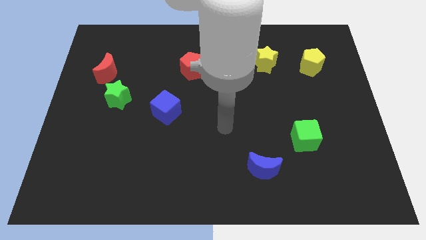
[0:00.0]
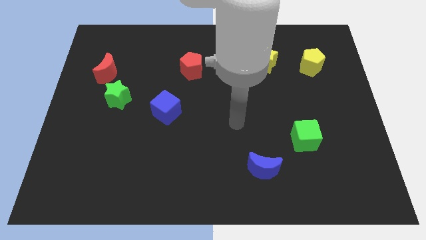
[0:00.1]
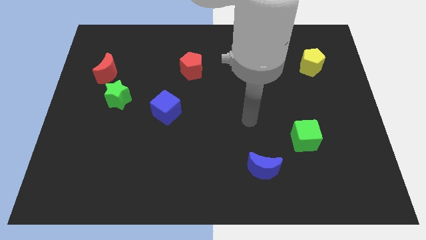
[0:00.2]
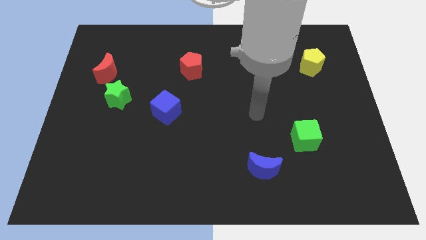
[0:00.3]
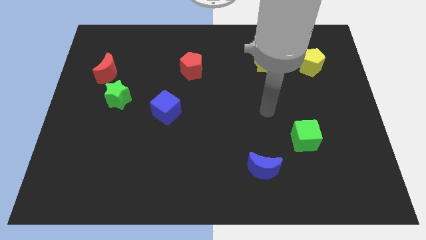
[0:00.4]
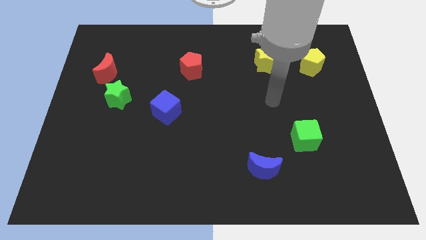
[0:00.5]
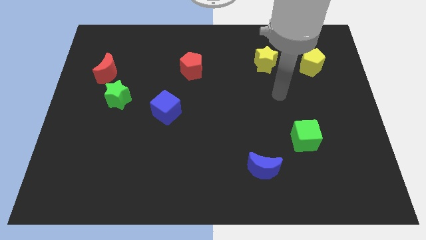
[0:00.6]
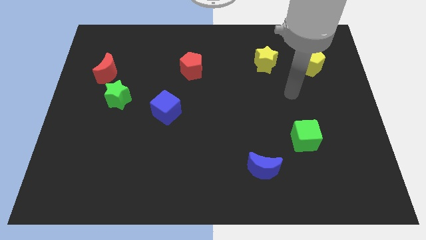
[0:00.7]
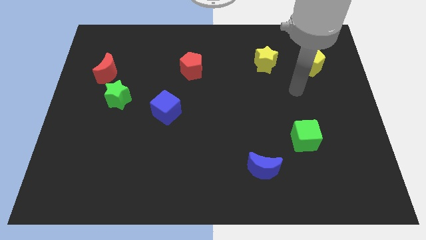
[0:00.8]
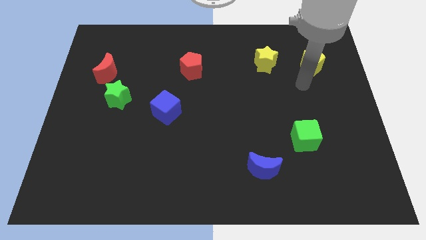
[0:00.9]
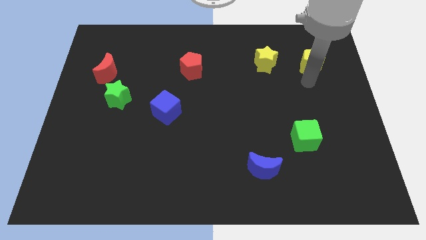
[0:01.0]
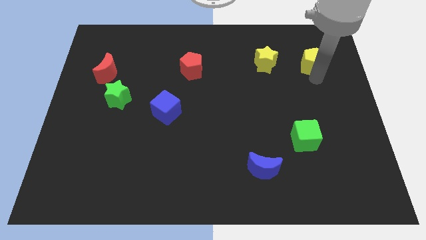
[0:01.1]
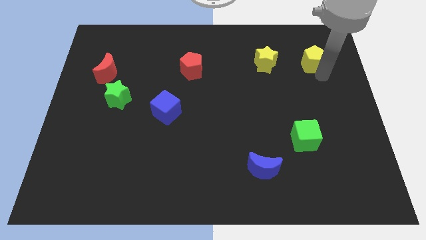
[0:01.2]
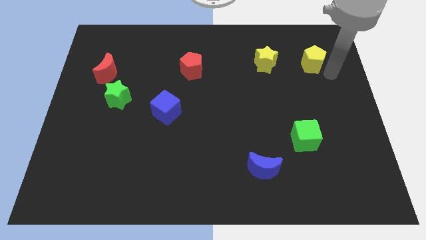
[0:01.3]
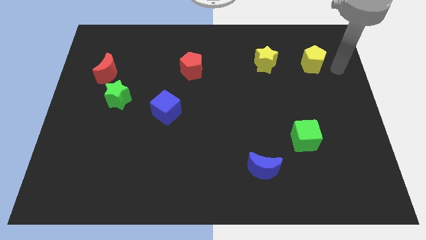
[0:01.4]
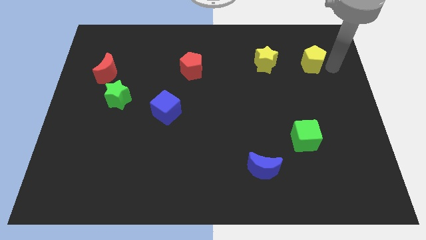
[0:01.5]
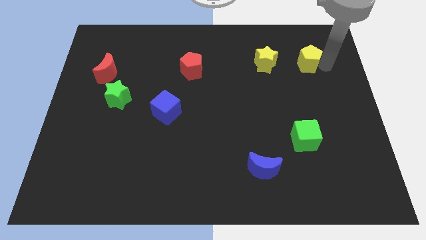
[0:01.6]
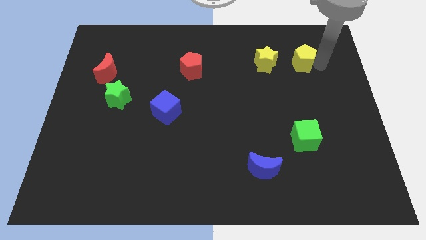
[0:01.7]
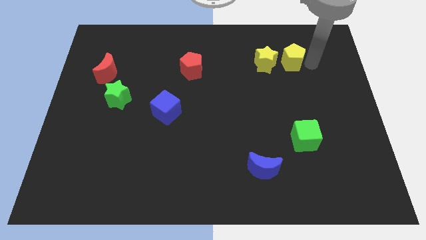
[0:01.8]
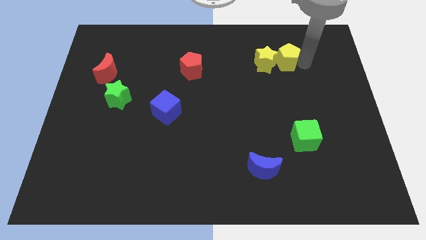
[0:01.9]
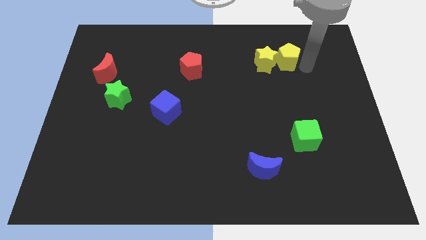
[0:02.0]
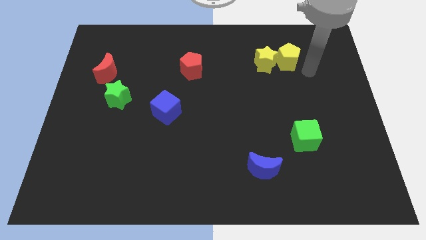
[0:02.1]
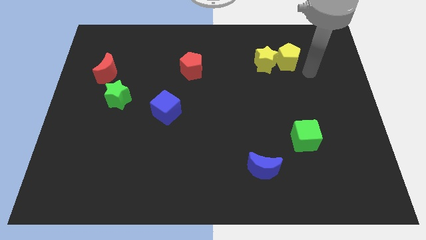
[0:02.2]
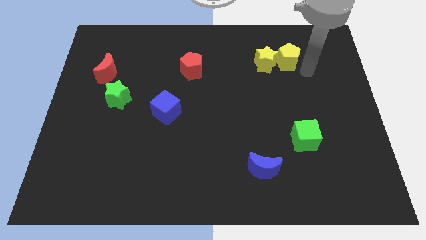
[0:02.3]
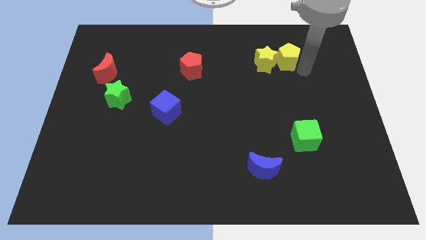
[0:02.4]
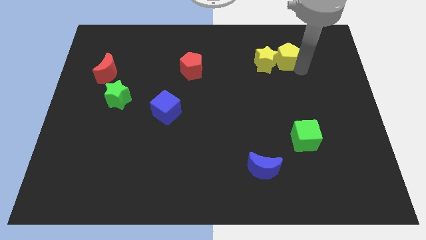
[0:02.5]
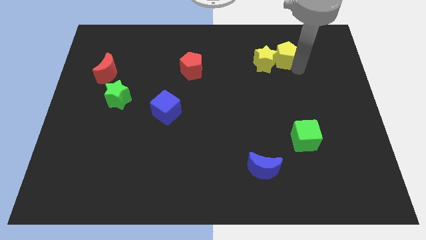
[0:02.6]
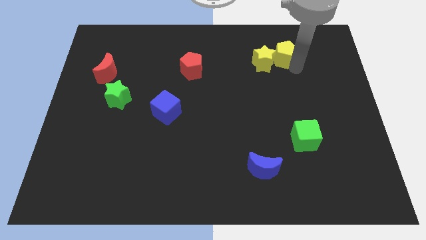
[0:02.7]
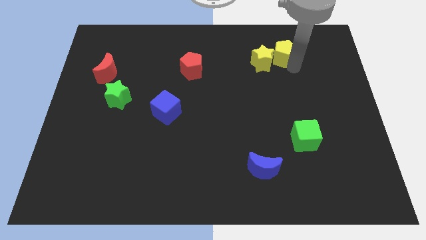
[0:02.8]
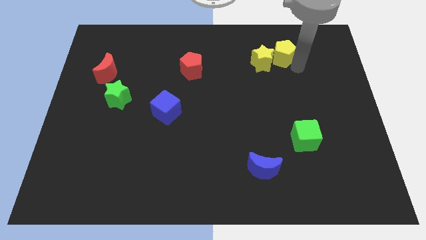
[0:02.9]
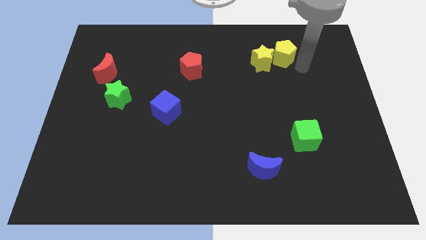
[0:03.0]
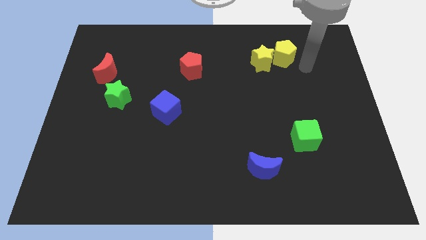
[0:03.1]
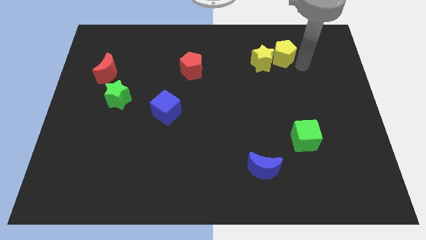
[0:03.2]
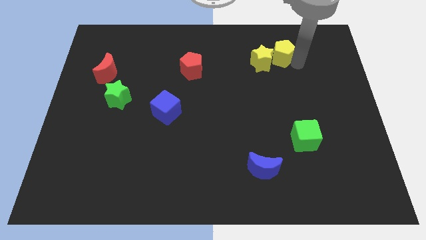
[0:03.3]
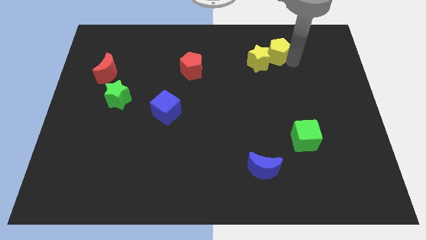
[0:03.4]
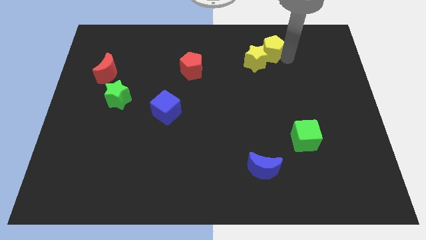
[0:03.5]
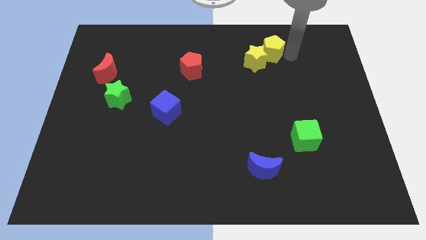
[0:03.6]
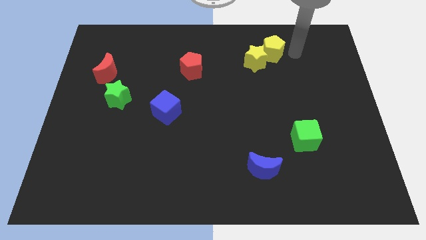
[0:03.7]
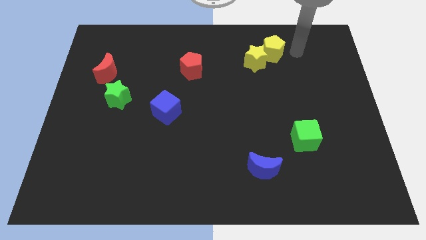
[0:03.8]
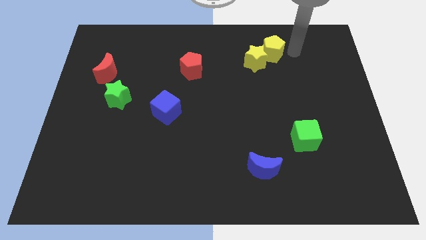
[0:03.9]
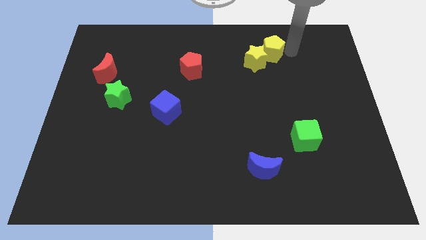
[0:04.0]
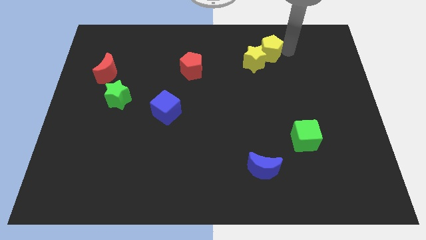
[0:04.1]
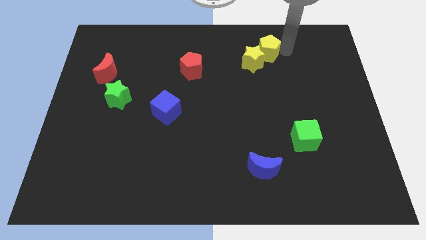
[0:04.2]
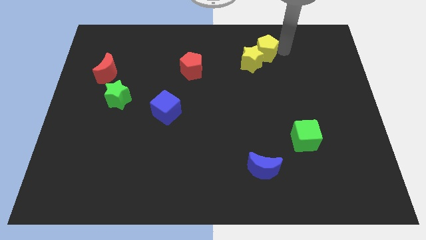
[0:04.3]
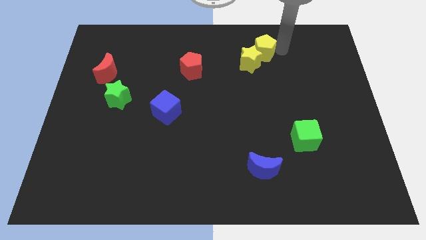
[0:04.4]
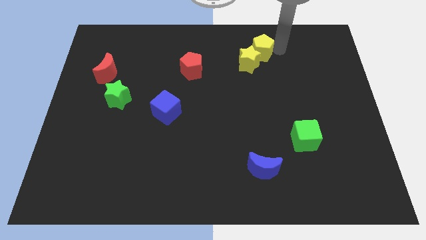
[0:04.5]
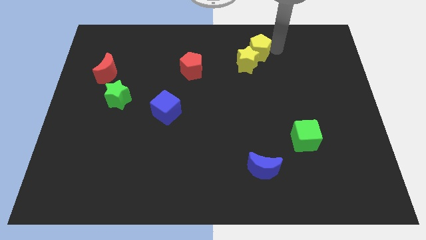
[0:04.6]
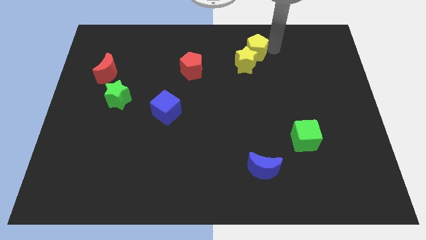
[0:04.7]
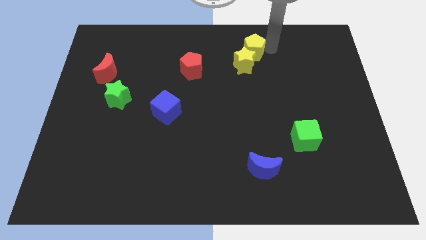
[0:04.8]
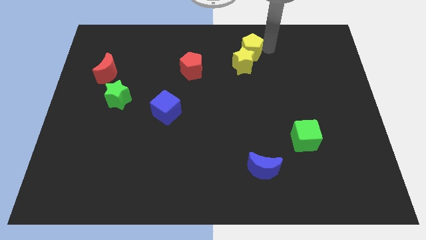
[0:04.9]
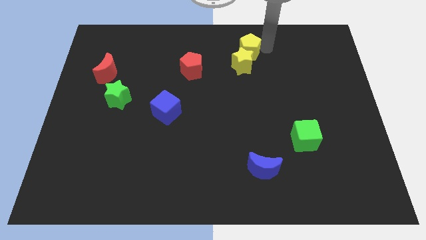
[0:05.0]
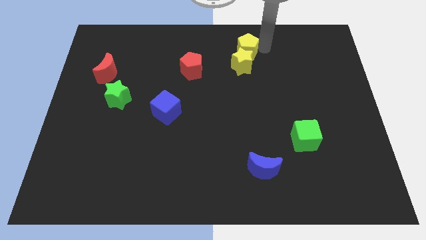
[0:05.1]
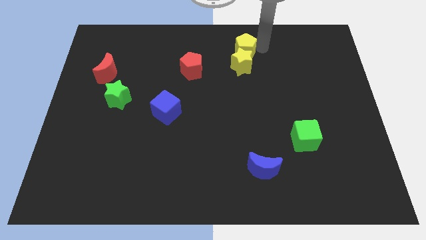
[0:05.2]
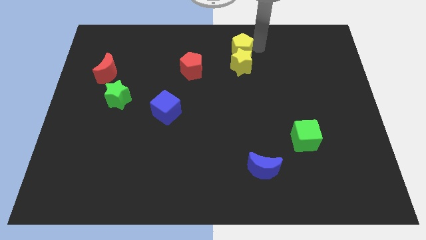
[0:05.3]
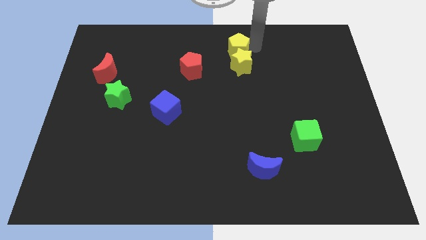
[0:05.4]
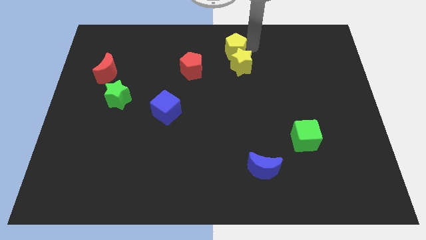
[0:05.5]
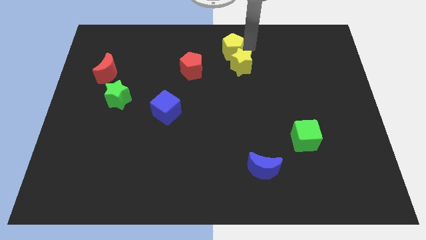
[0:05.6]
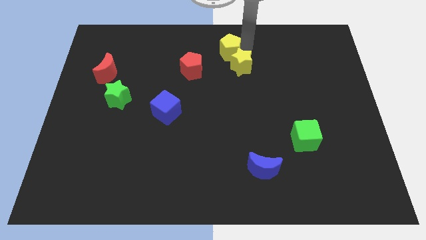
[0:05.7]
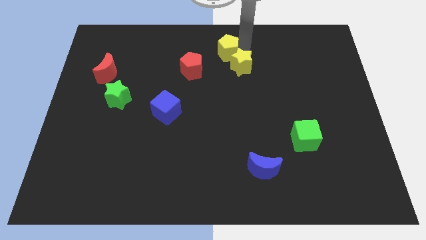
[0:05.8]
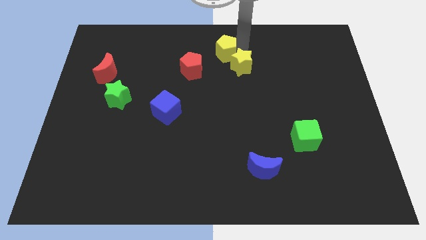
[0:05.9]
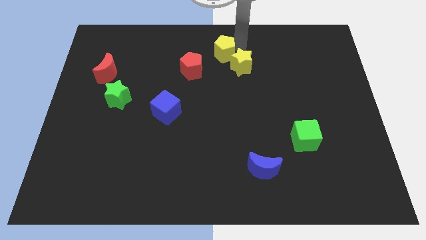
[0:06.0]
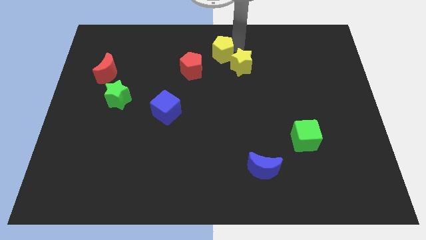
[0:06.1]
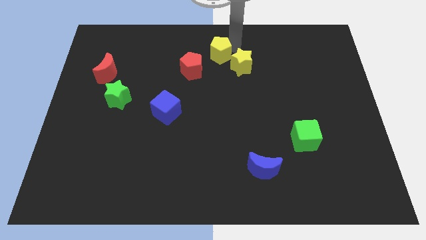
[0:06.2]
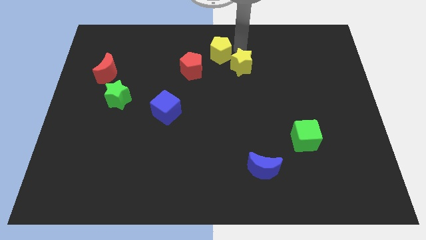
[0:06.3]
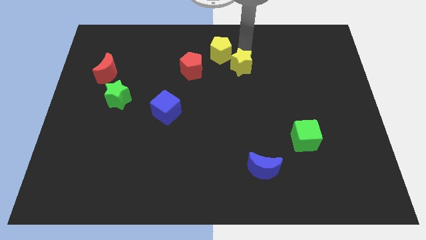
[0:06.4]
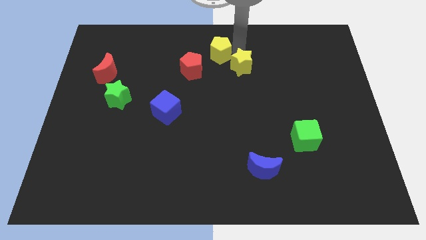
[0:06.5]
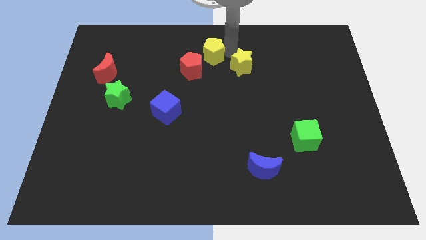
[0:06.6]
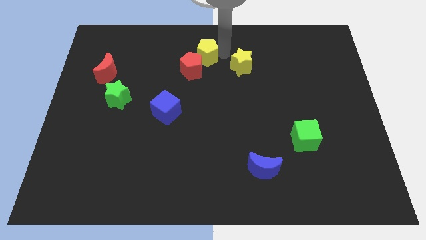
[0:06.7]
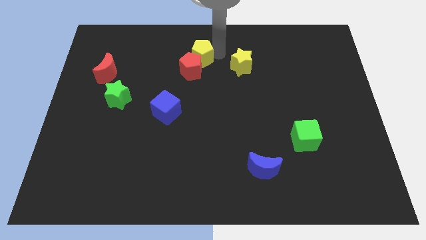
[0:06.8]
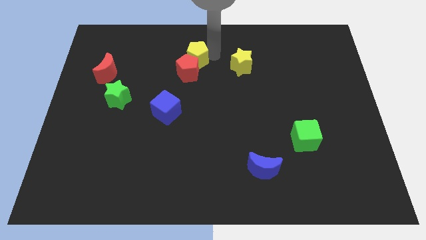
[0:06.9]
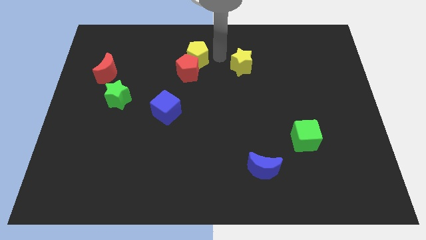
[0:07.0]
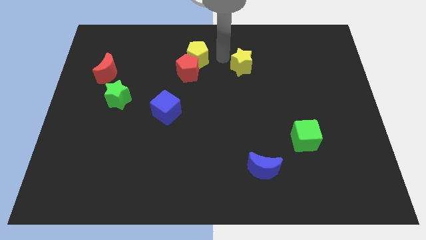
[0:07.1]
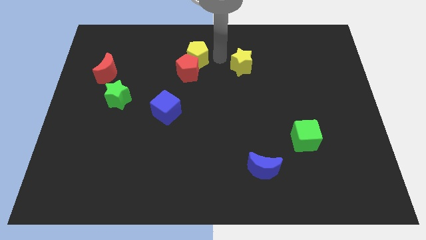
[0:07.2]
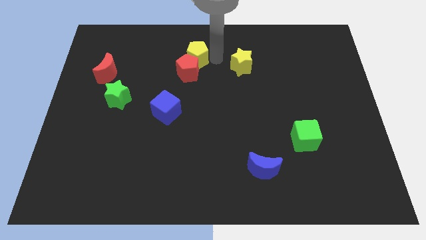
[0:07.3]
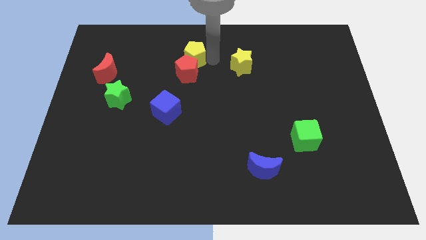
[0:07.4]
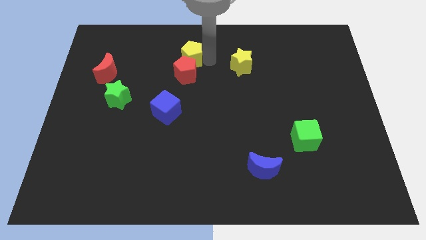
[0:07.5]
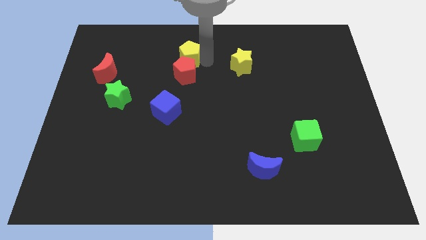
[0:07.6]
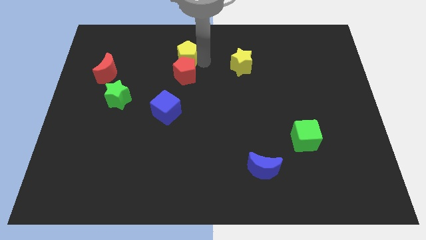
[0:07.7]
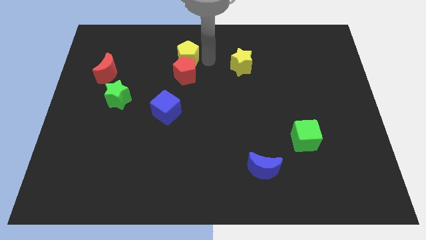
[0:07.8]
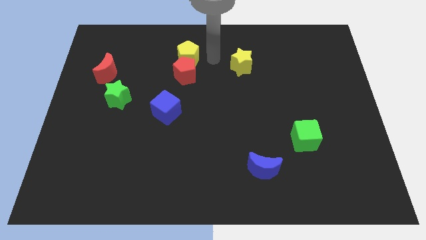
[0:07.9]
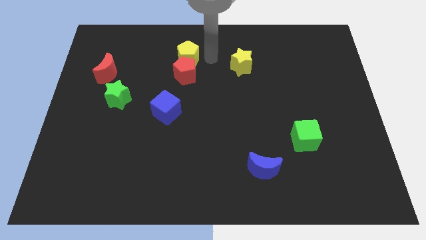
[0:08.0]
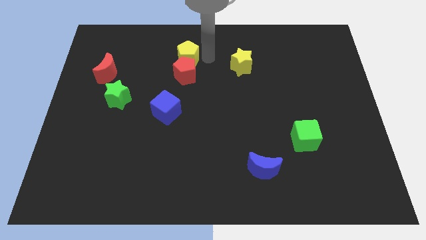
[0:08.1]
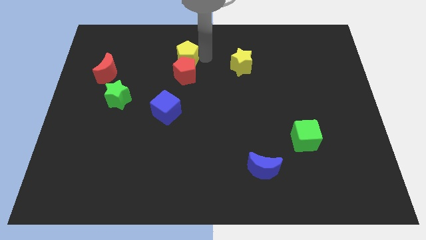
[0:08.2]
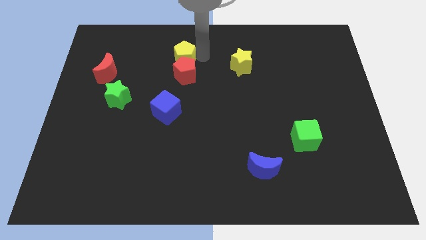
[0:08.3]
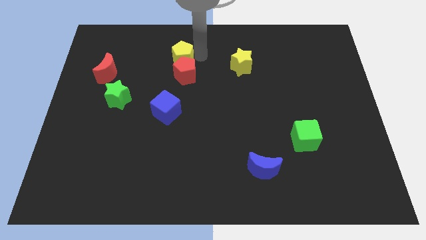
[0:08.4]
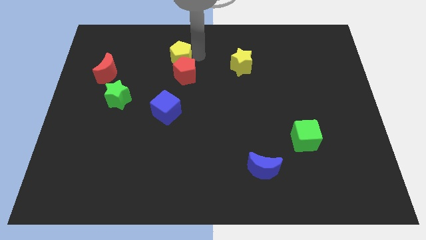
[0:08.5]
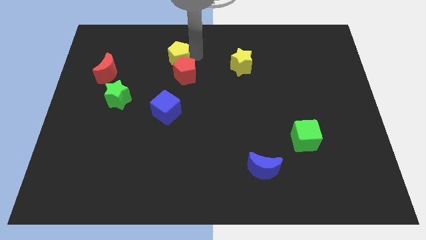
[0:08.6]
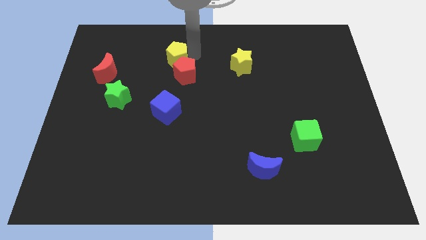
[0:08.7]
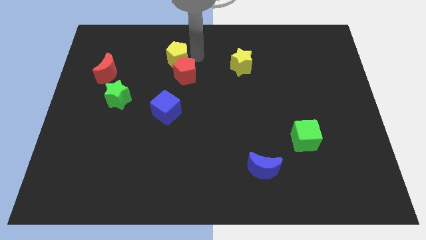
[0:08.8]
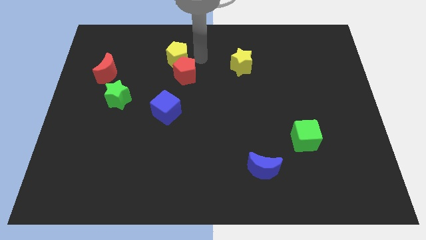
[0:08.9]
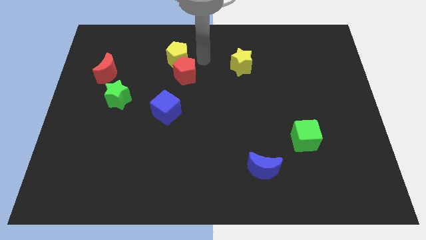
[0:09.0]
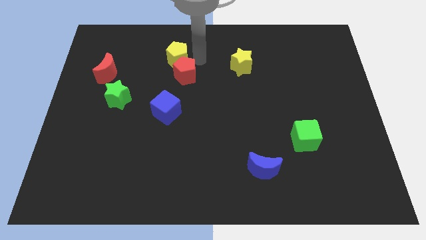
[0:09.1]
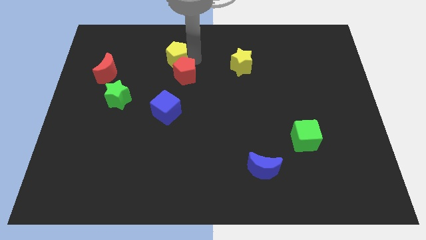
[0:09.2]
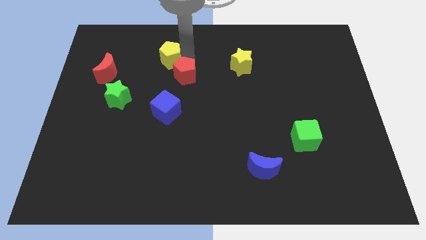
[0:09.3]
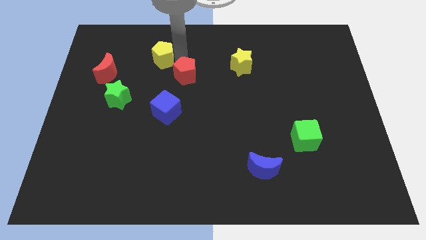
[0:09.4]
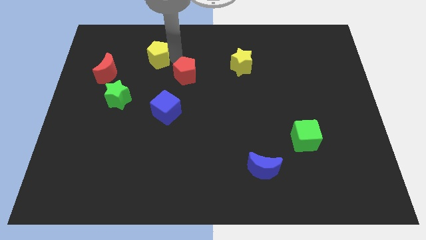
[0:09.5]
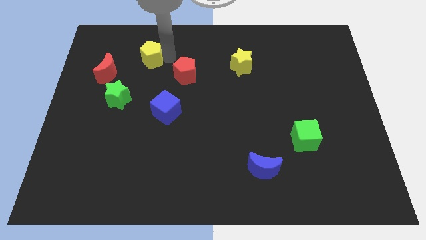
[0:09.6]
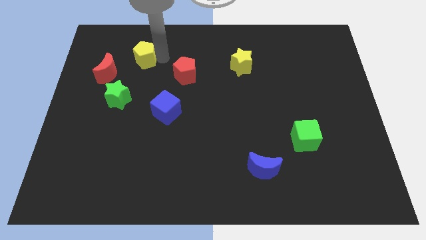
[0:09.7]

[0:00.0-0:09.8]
move the yellow pentagon to the top right side of the red moon
